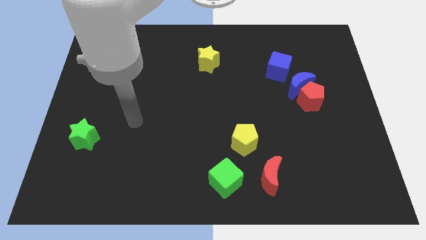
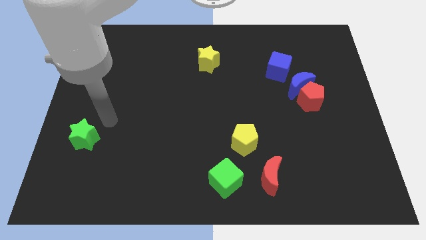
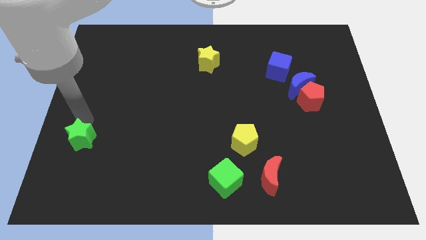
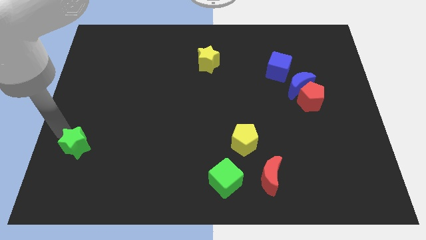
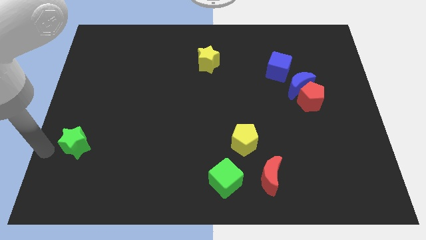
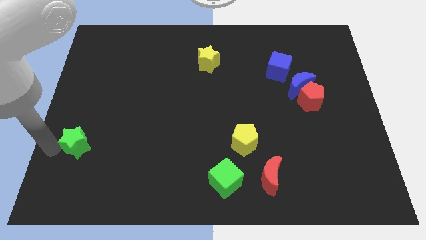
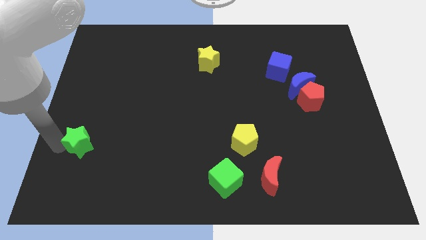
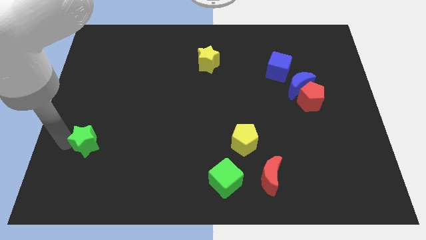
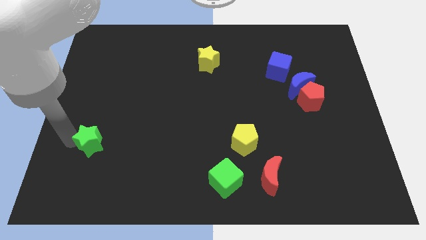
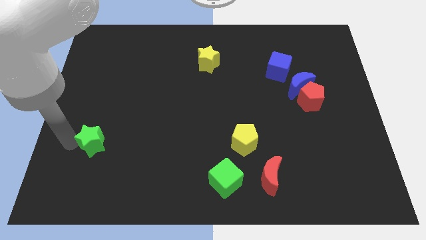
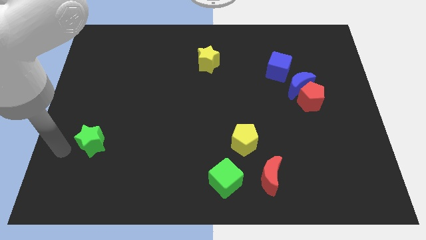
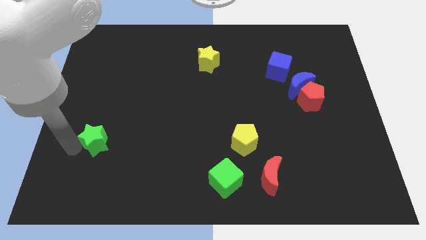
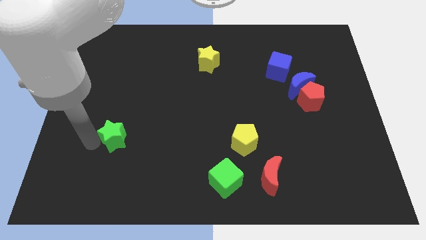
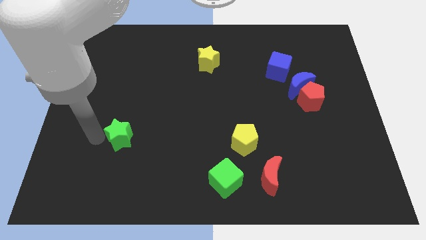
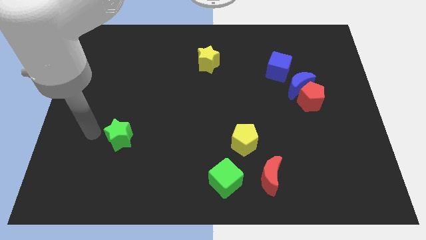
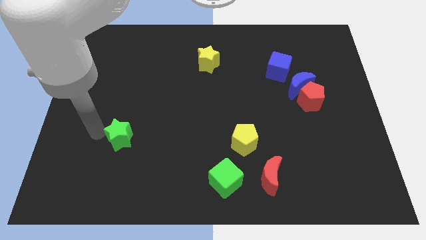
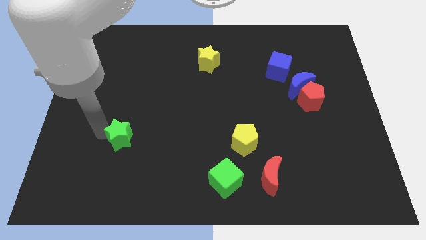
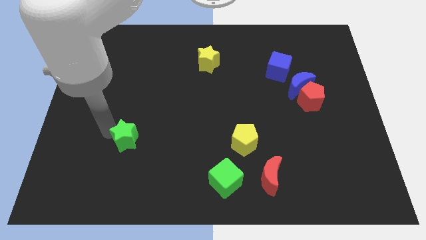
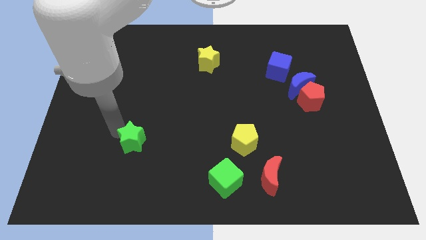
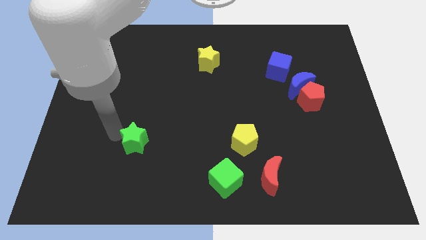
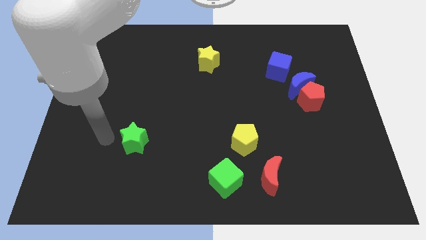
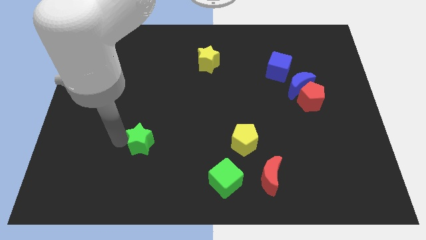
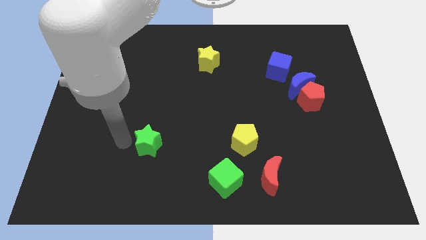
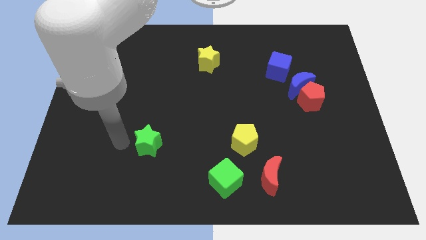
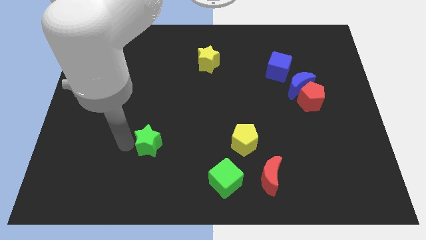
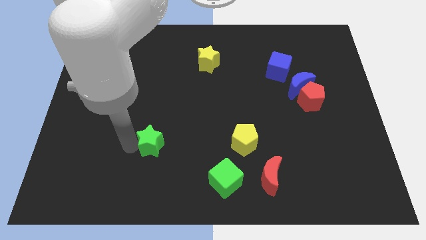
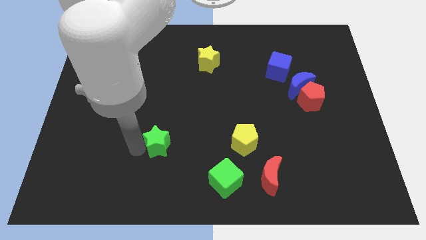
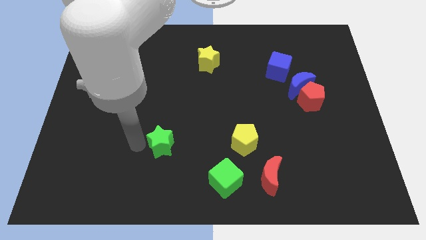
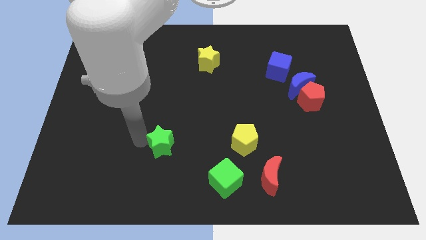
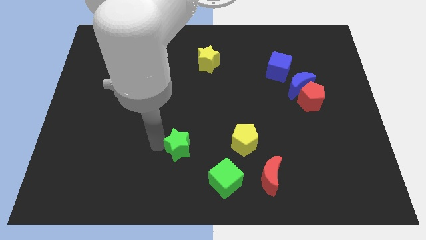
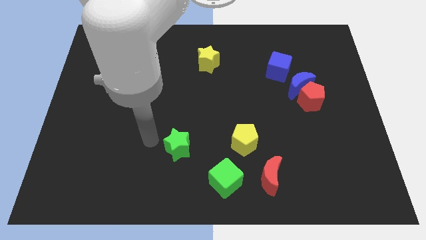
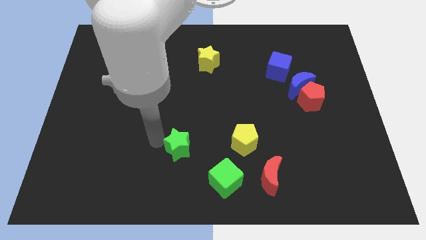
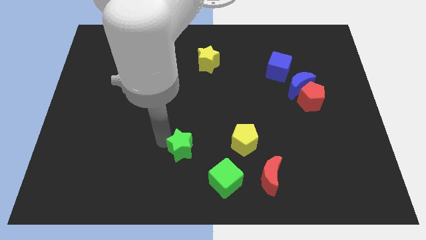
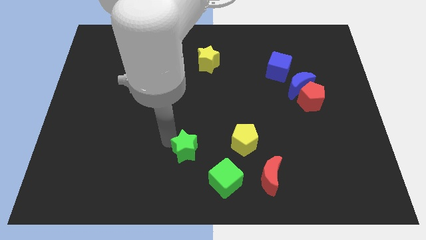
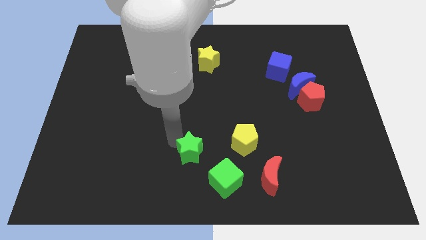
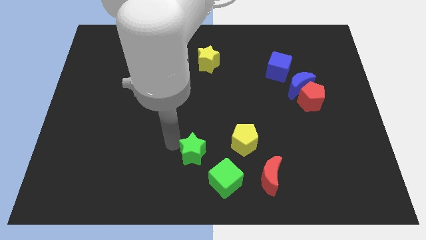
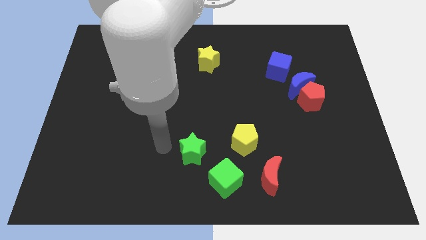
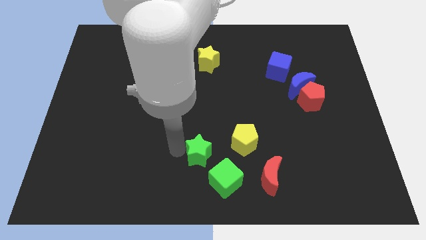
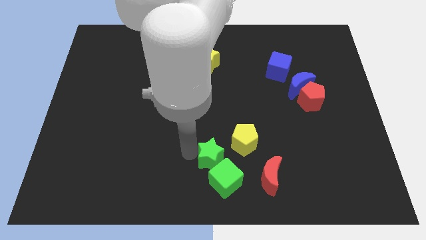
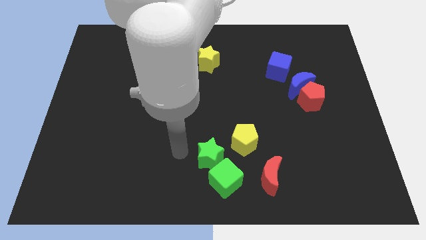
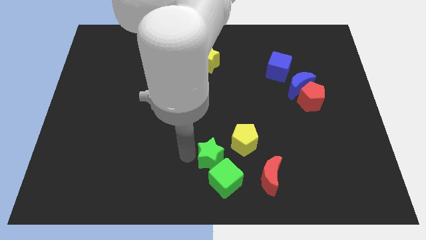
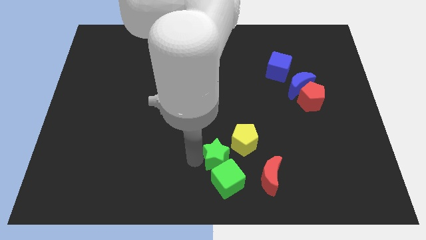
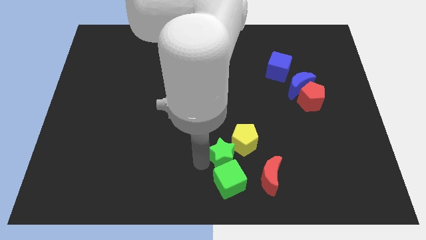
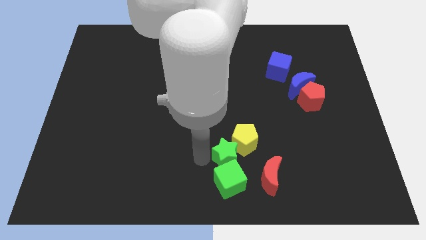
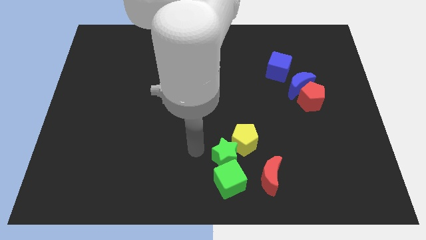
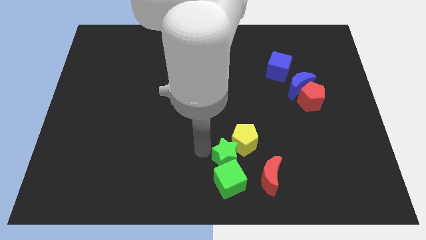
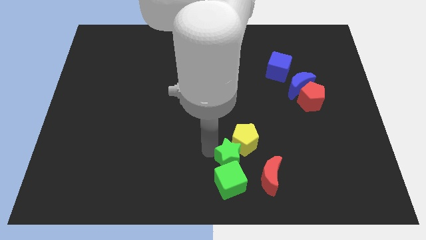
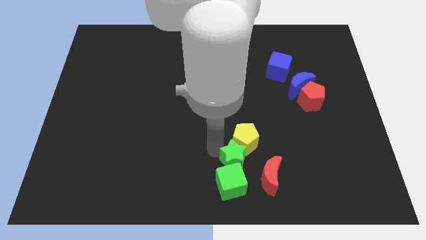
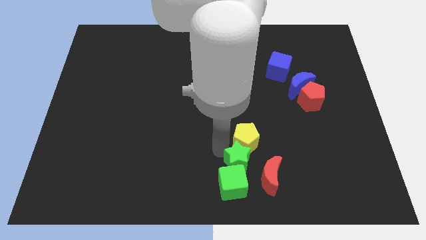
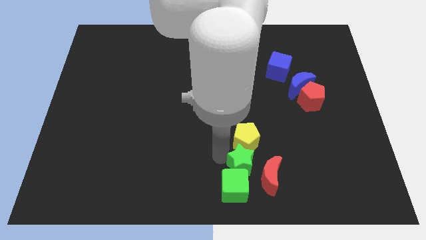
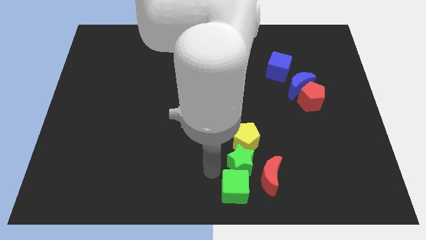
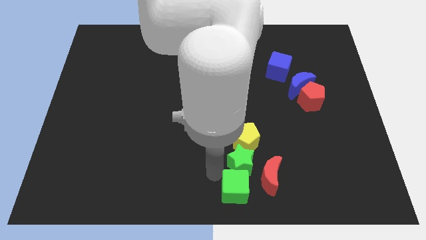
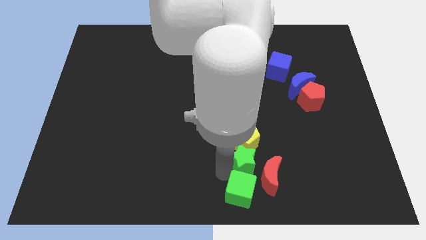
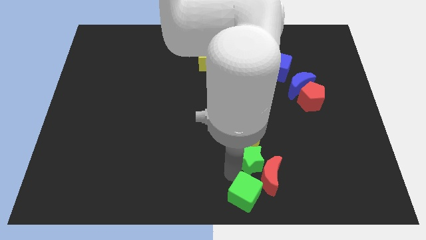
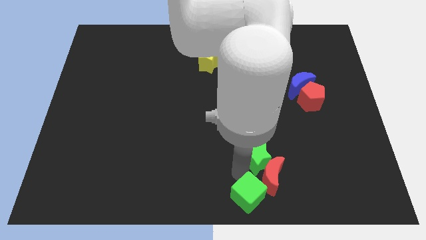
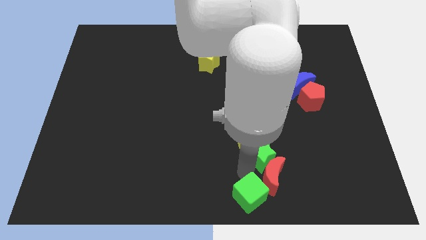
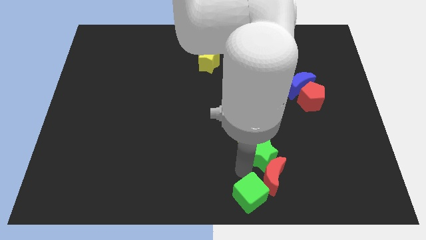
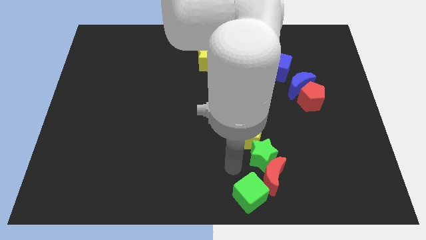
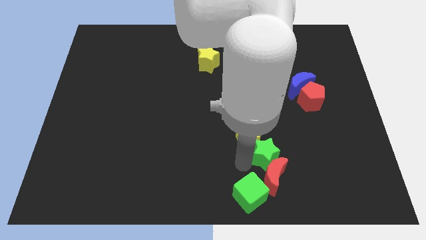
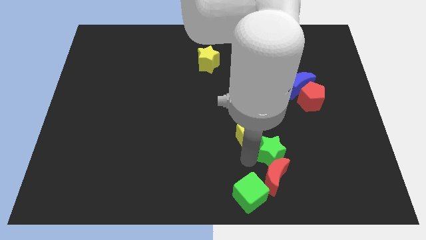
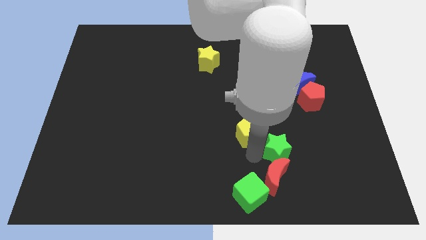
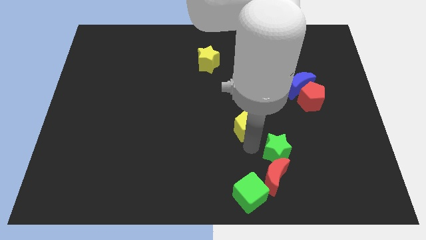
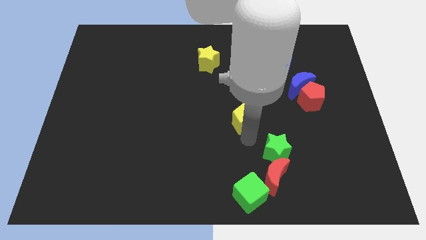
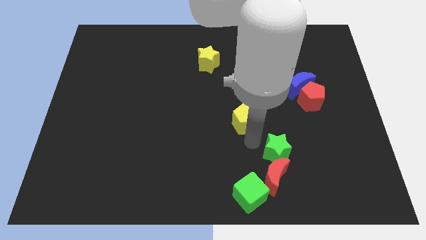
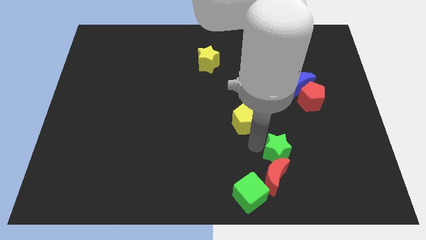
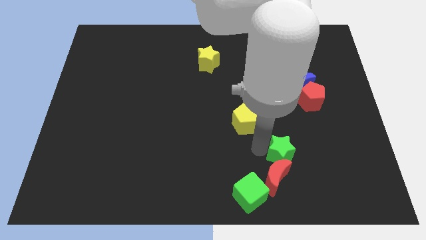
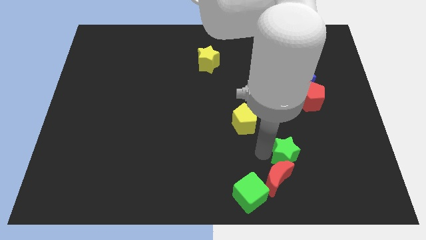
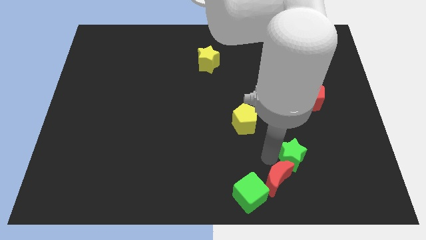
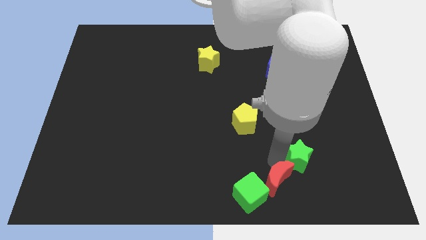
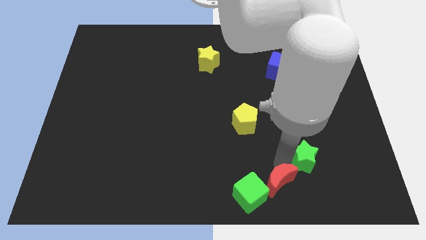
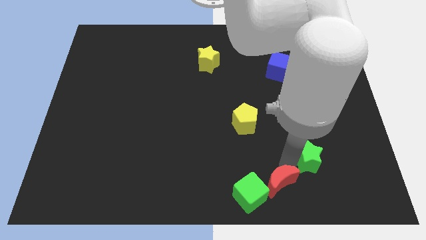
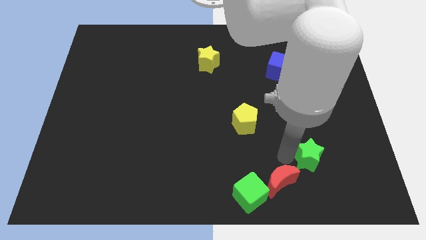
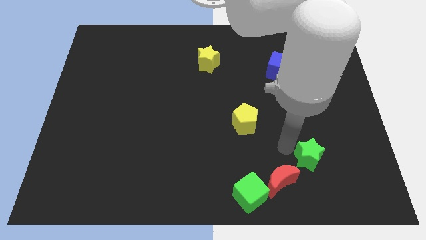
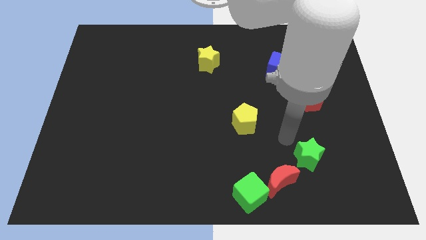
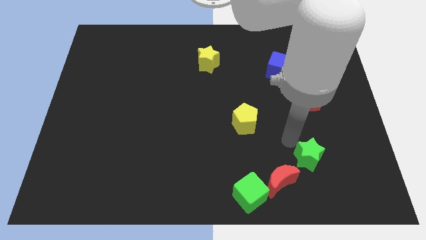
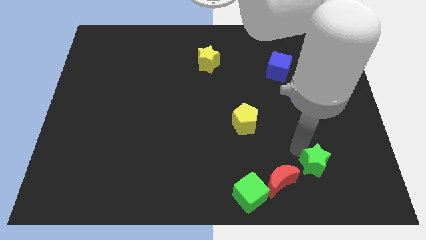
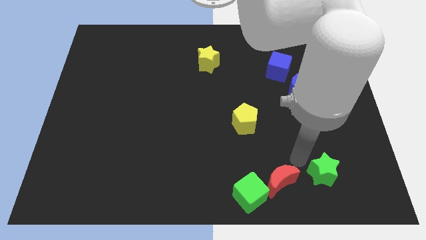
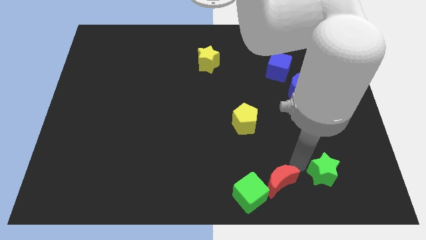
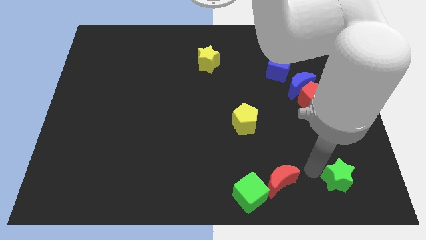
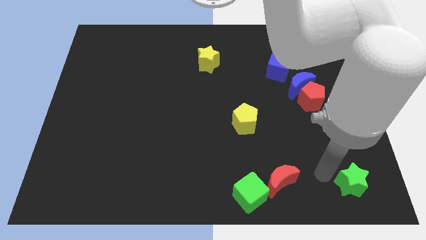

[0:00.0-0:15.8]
move the green star to the lower right corner

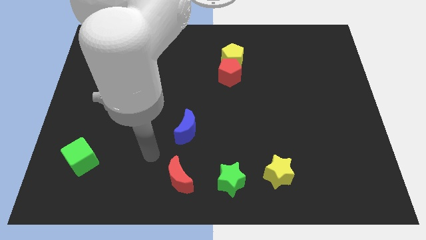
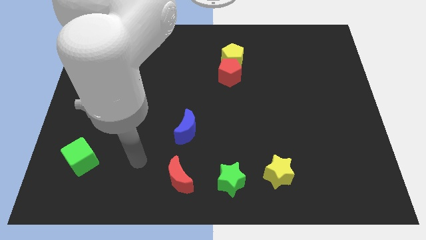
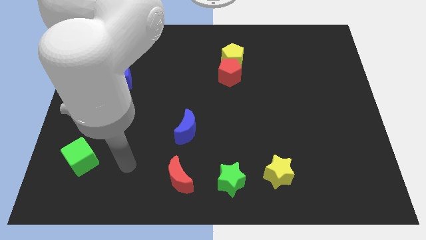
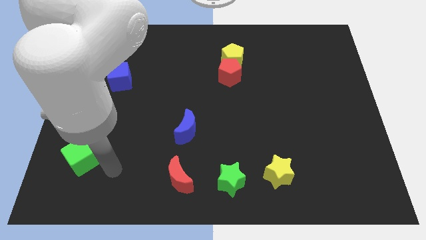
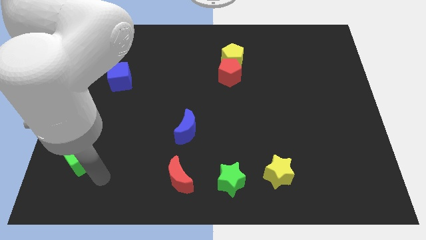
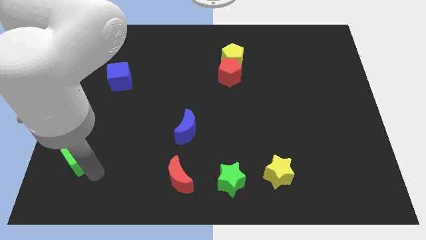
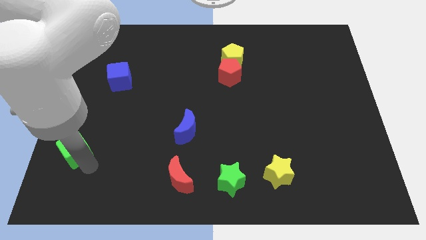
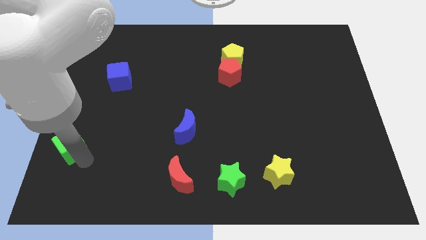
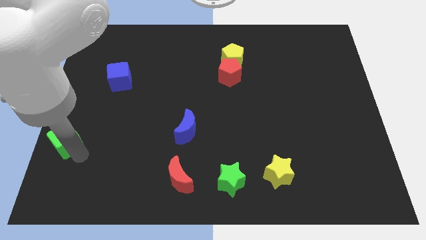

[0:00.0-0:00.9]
push the green cube to the left side
